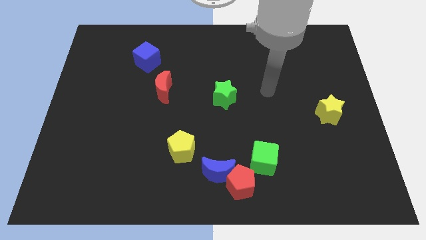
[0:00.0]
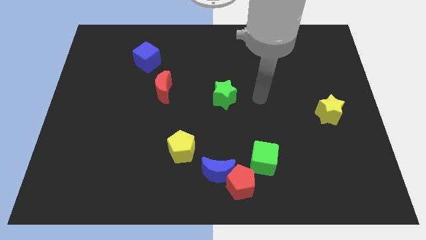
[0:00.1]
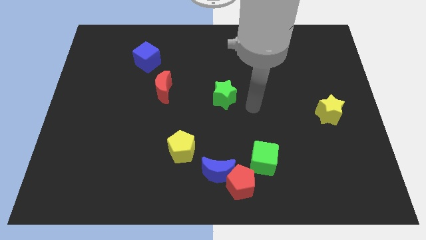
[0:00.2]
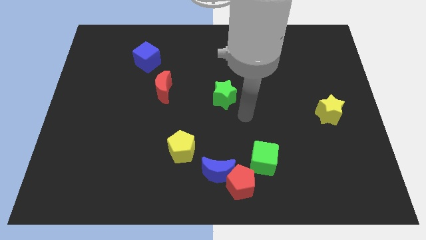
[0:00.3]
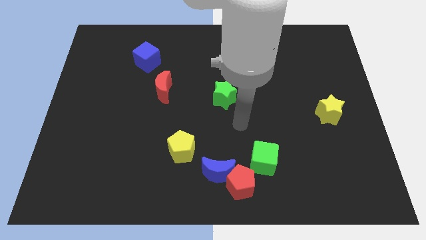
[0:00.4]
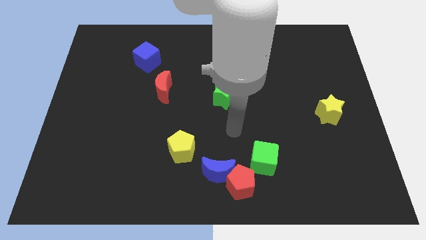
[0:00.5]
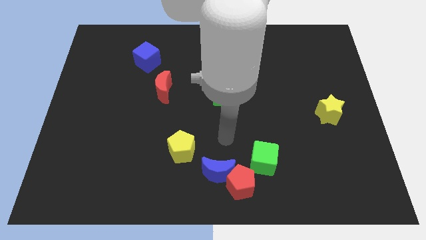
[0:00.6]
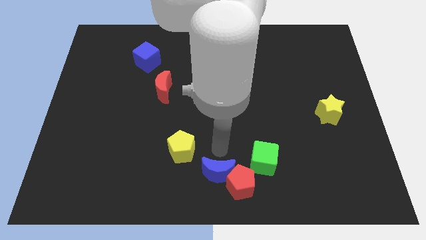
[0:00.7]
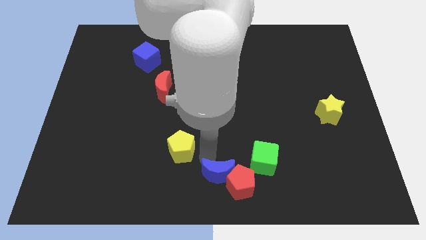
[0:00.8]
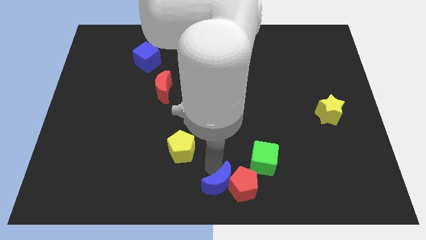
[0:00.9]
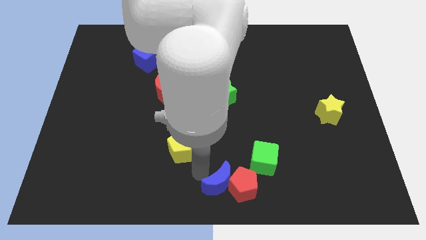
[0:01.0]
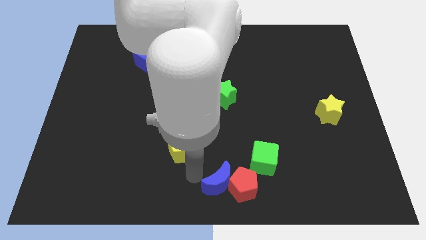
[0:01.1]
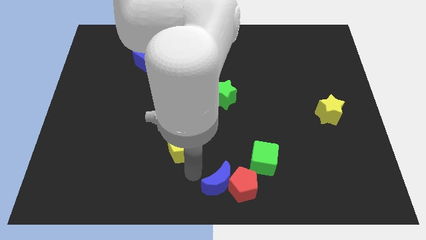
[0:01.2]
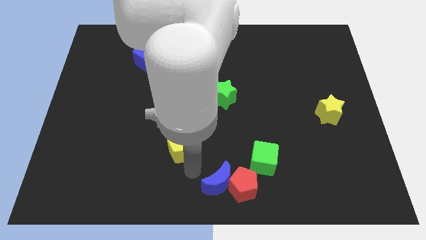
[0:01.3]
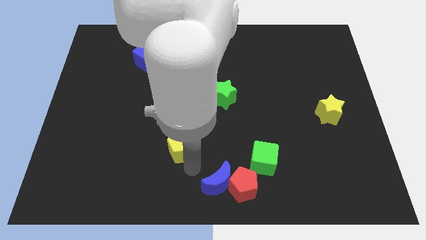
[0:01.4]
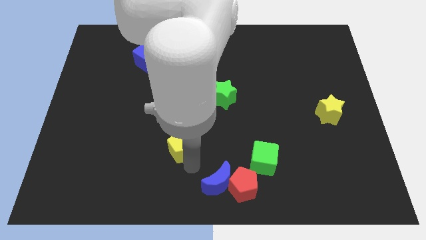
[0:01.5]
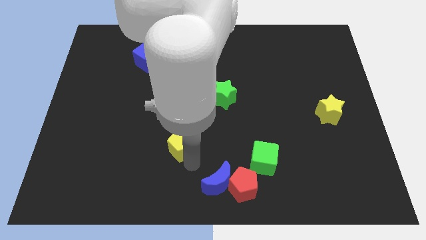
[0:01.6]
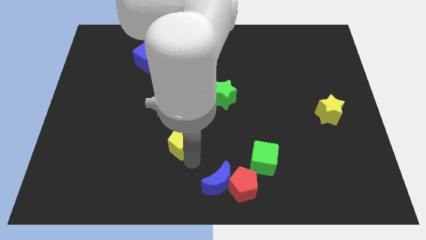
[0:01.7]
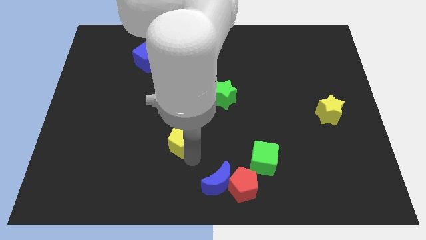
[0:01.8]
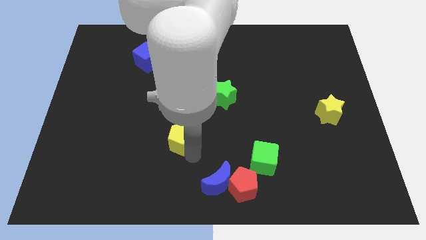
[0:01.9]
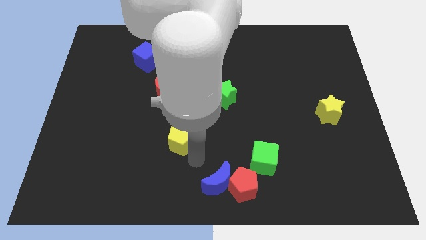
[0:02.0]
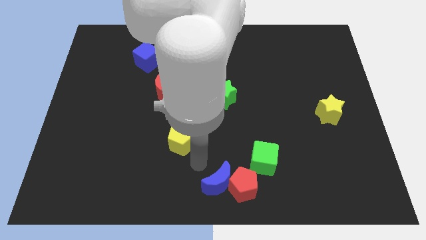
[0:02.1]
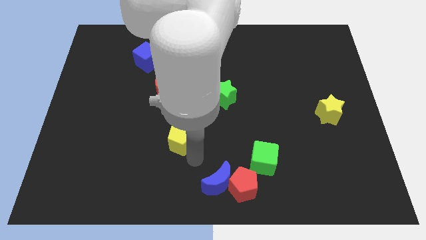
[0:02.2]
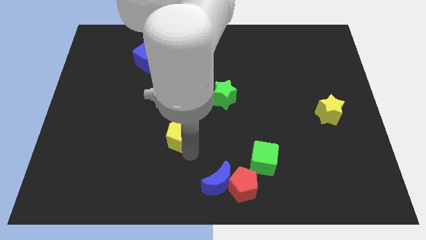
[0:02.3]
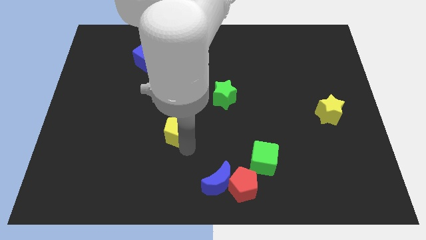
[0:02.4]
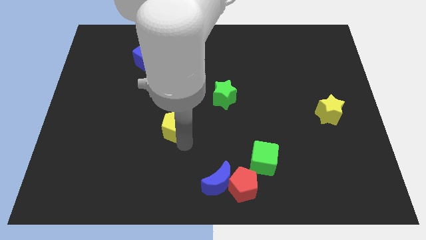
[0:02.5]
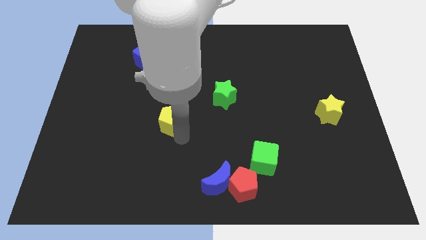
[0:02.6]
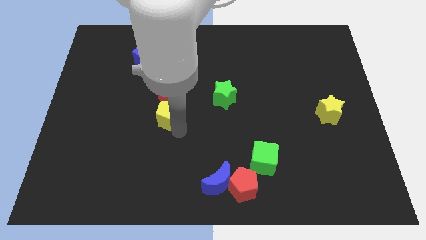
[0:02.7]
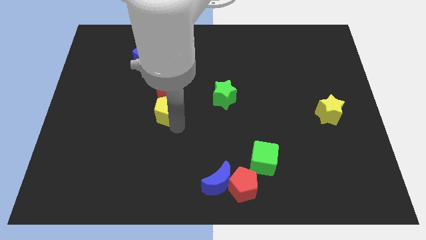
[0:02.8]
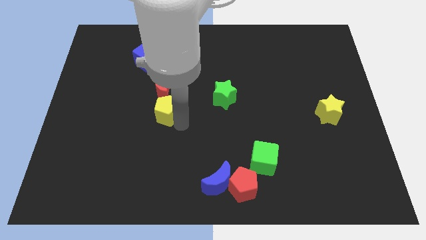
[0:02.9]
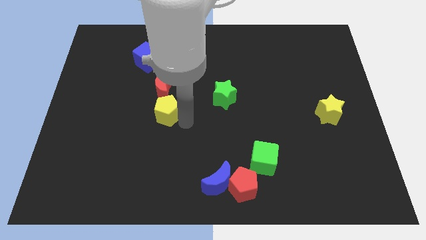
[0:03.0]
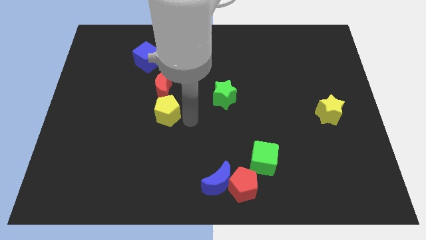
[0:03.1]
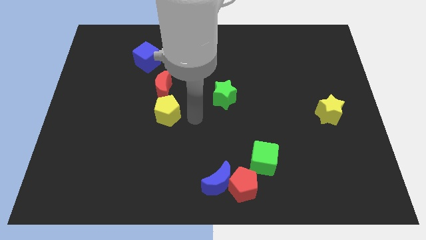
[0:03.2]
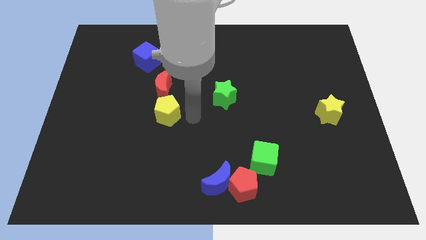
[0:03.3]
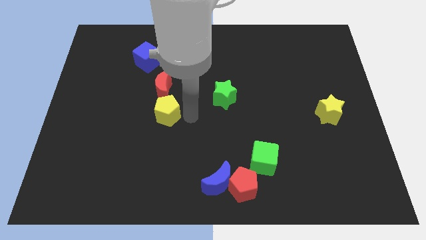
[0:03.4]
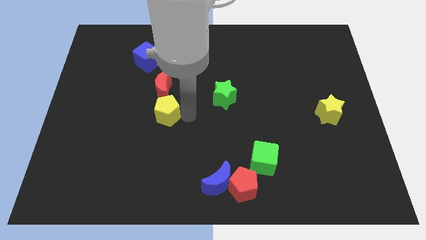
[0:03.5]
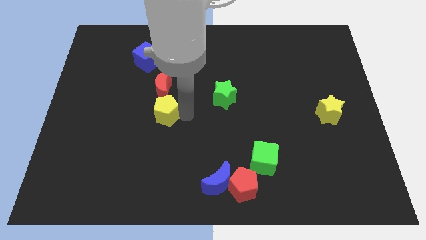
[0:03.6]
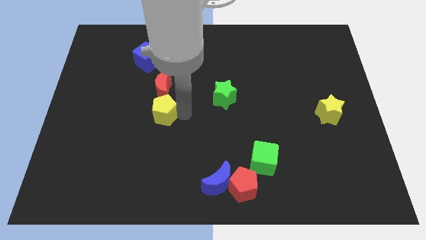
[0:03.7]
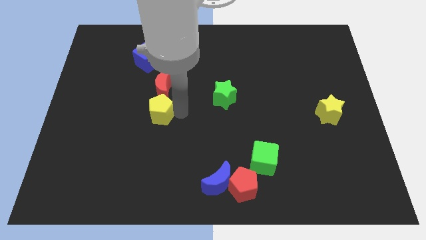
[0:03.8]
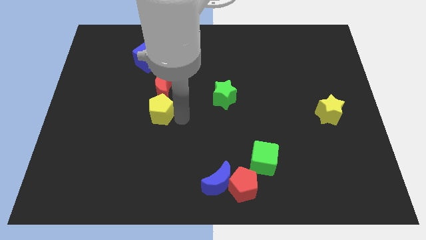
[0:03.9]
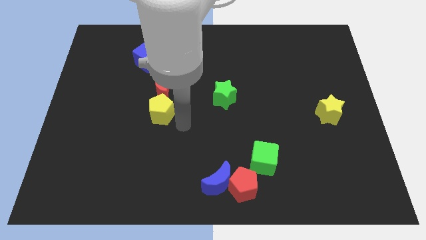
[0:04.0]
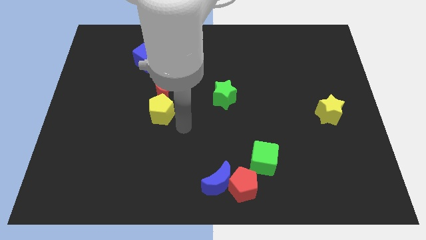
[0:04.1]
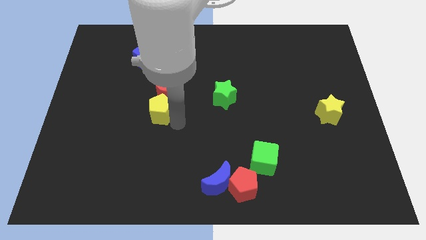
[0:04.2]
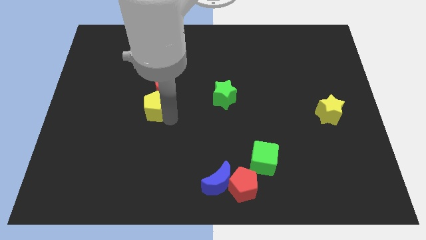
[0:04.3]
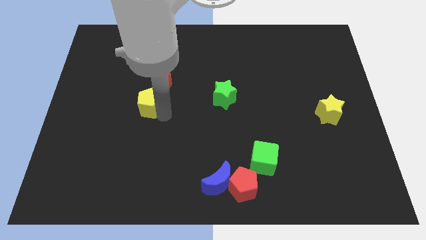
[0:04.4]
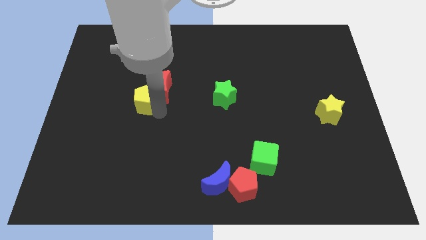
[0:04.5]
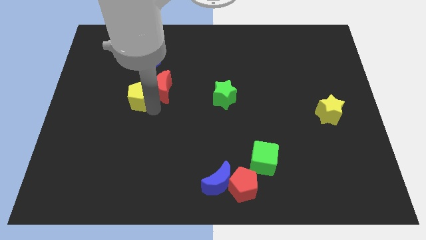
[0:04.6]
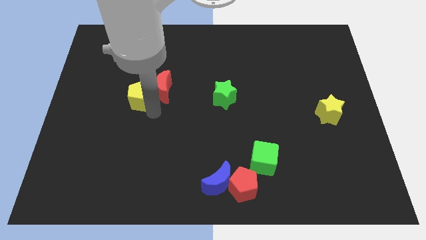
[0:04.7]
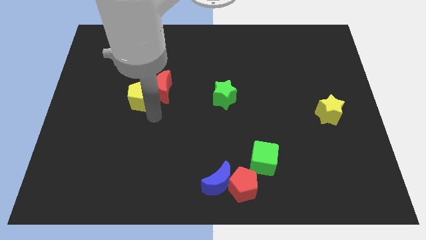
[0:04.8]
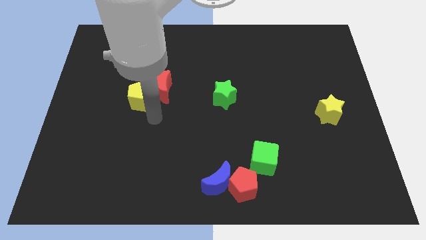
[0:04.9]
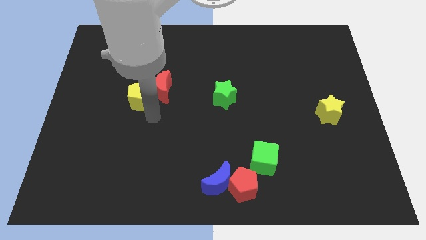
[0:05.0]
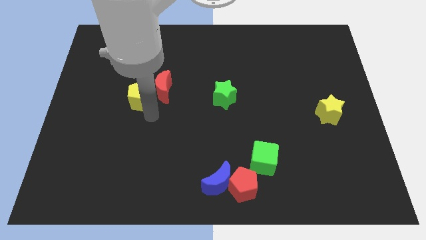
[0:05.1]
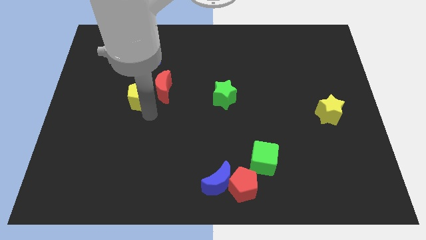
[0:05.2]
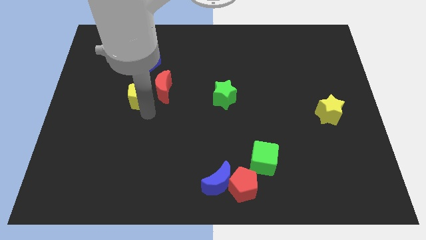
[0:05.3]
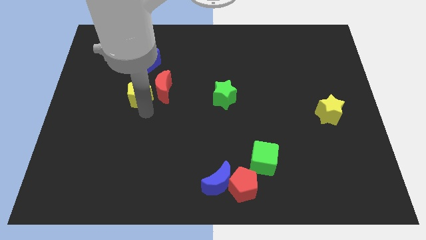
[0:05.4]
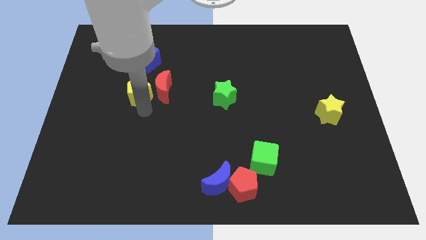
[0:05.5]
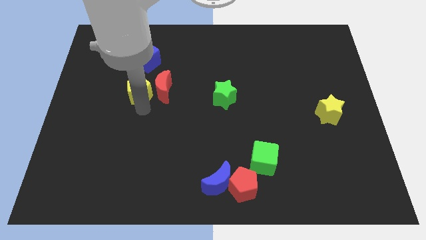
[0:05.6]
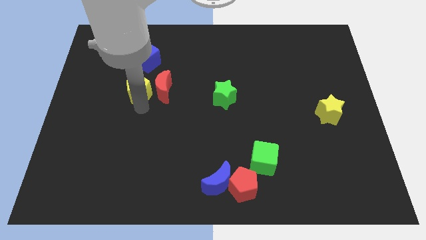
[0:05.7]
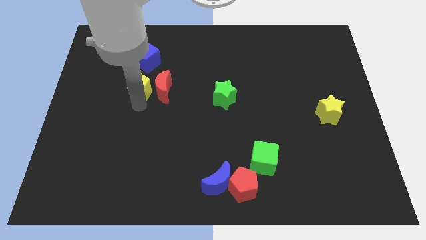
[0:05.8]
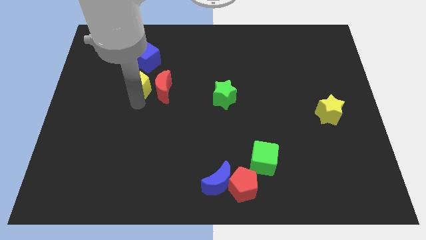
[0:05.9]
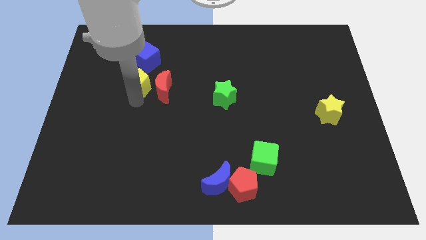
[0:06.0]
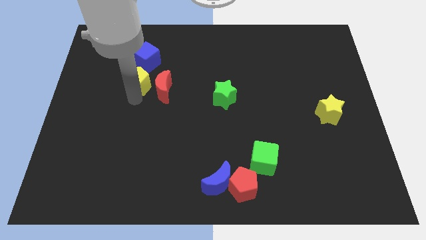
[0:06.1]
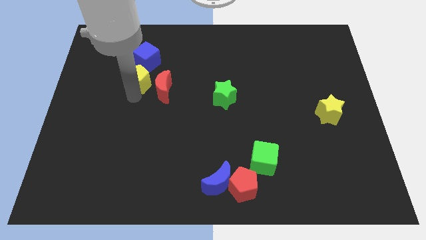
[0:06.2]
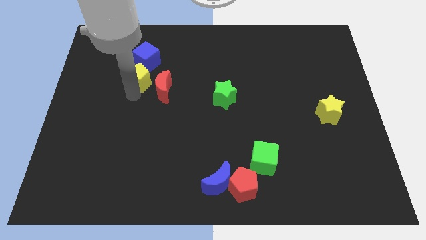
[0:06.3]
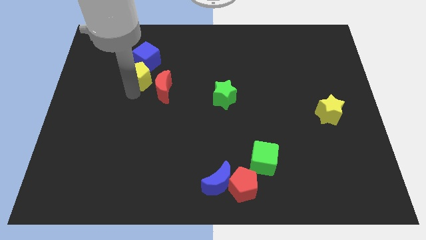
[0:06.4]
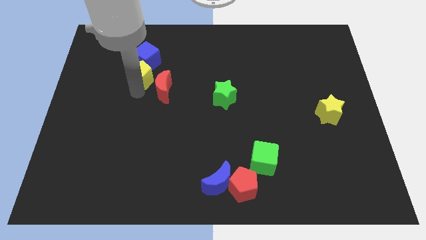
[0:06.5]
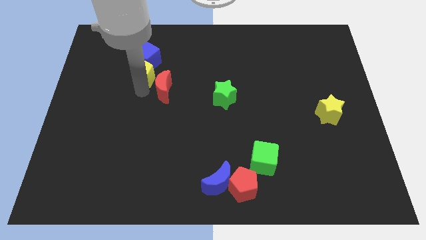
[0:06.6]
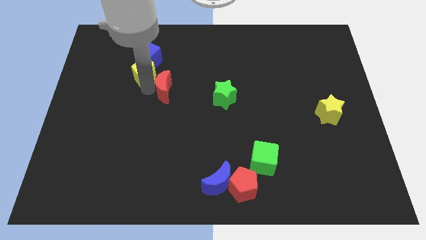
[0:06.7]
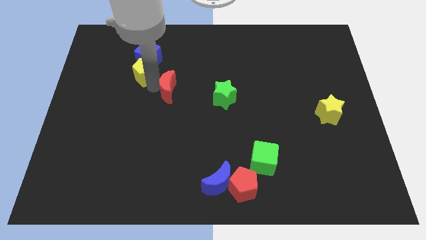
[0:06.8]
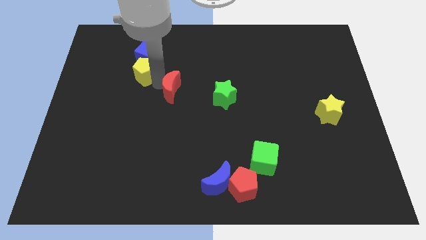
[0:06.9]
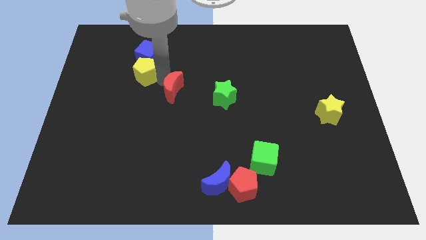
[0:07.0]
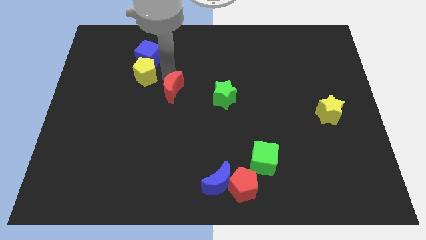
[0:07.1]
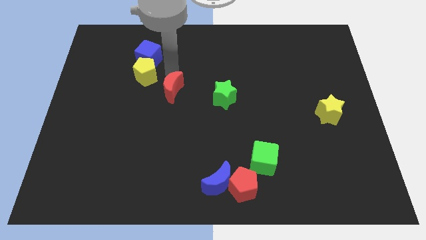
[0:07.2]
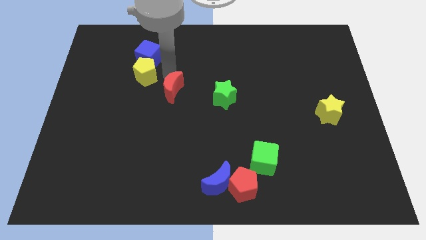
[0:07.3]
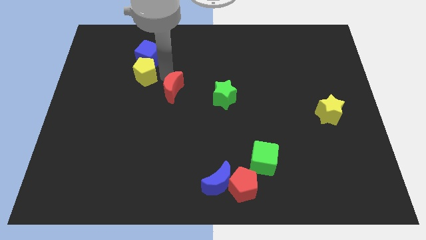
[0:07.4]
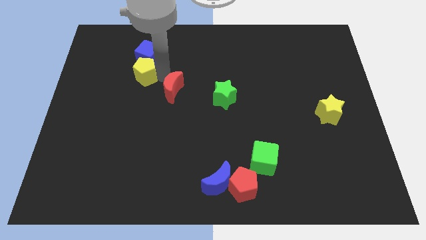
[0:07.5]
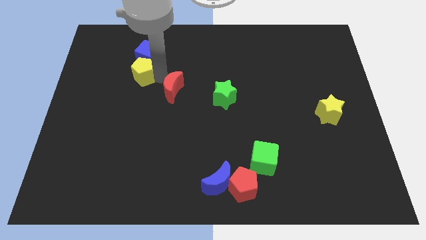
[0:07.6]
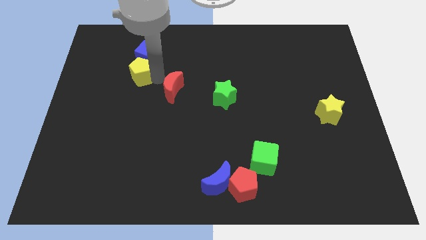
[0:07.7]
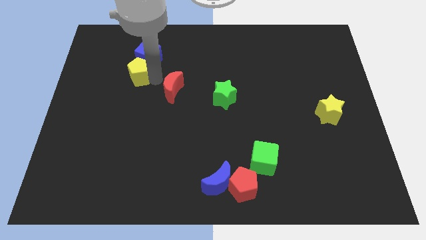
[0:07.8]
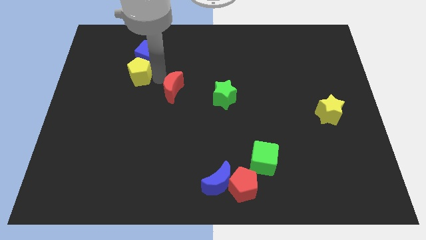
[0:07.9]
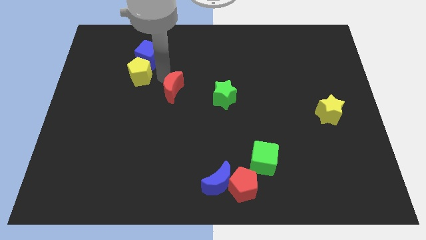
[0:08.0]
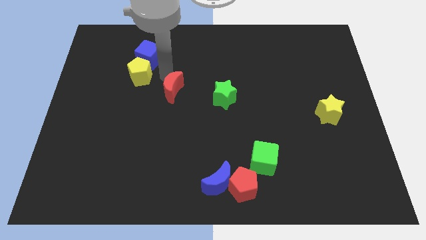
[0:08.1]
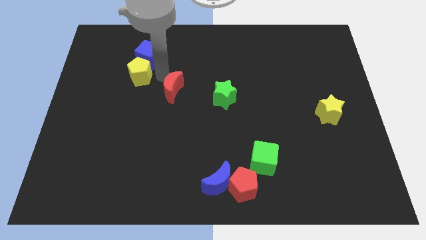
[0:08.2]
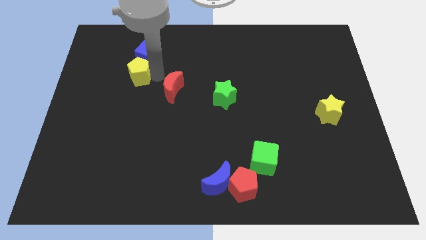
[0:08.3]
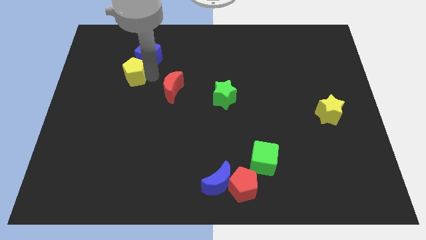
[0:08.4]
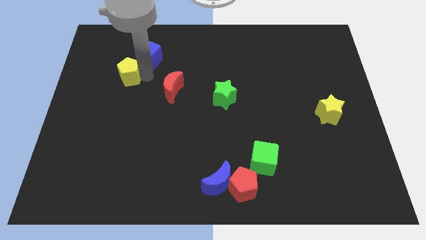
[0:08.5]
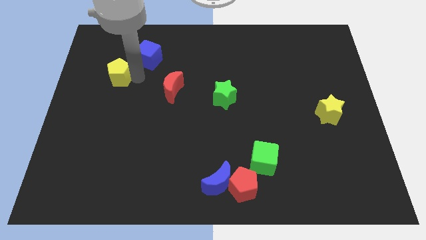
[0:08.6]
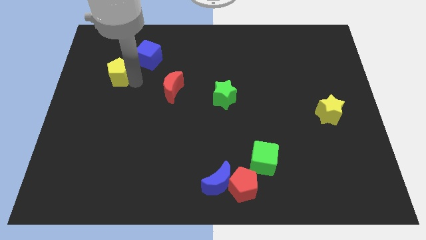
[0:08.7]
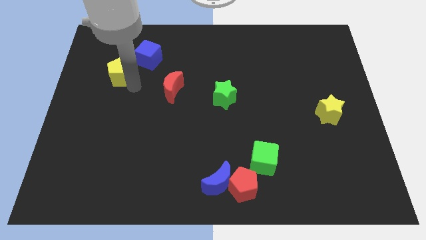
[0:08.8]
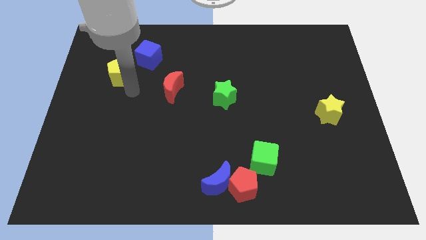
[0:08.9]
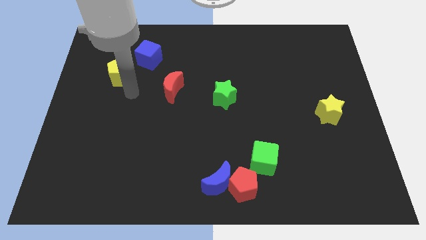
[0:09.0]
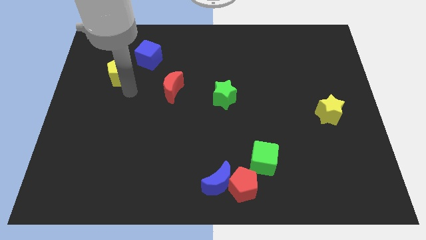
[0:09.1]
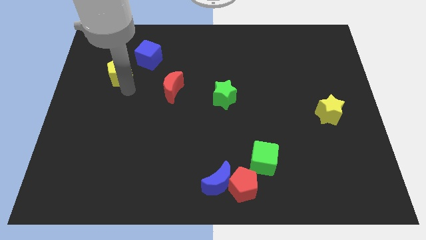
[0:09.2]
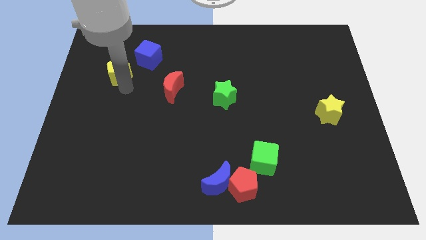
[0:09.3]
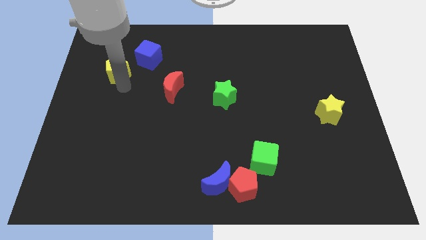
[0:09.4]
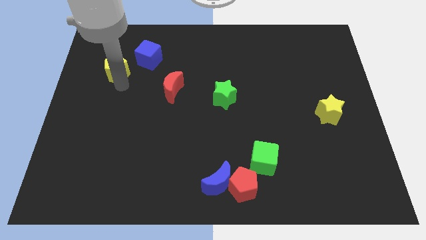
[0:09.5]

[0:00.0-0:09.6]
slide the yellow pentagon to the left side of the blue cube
